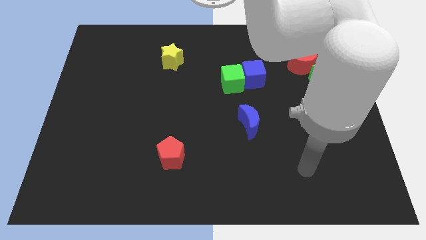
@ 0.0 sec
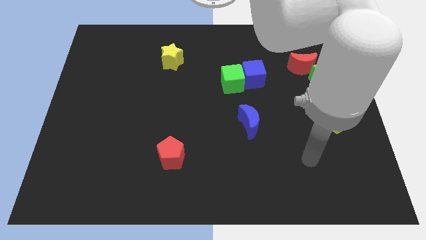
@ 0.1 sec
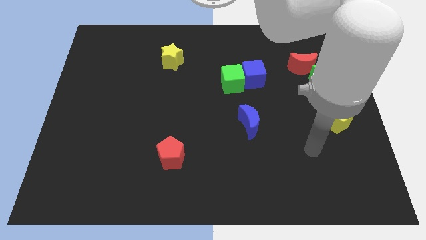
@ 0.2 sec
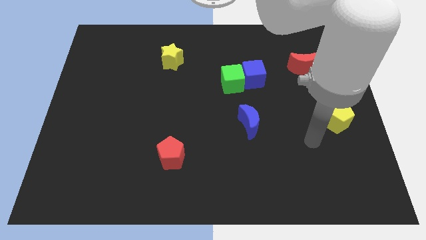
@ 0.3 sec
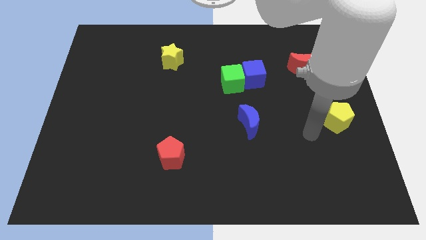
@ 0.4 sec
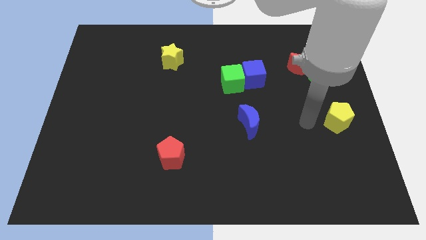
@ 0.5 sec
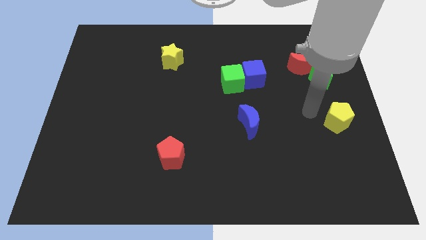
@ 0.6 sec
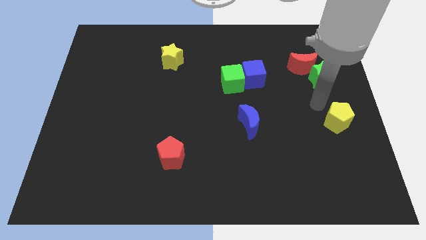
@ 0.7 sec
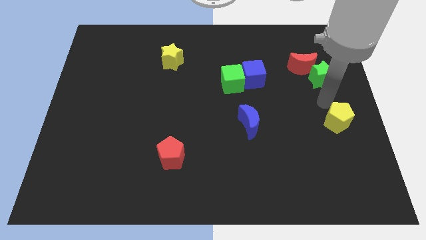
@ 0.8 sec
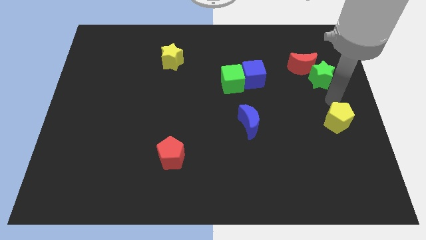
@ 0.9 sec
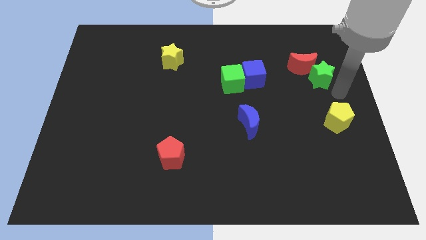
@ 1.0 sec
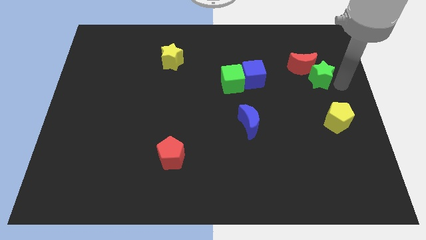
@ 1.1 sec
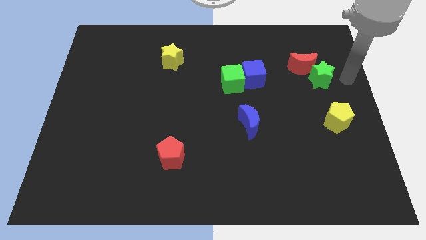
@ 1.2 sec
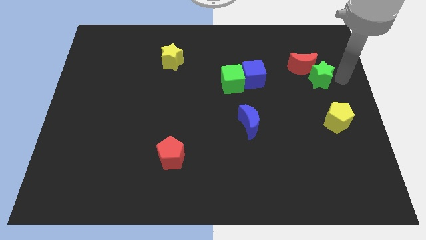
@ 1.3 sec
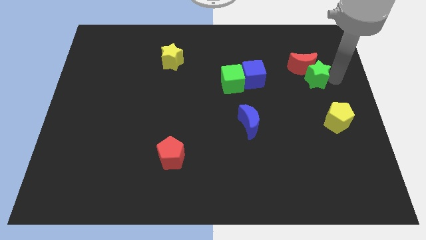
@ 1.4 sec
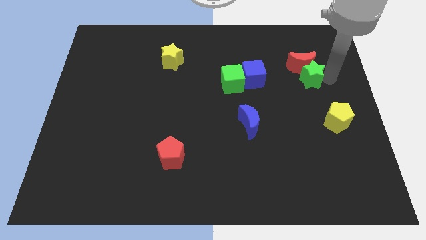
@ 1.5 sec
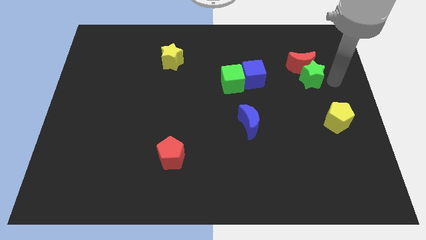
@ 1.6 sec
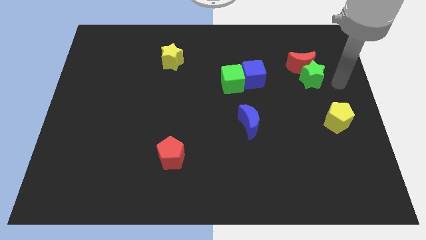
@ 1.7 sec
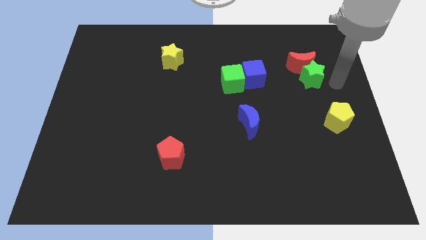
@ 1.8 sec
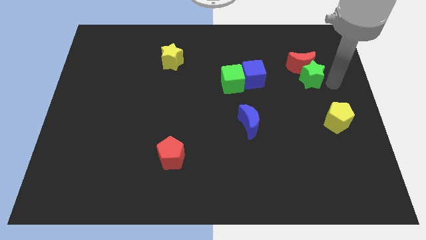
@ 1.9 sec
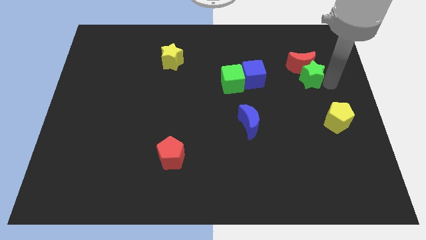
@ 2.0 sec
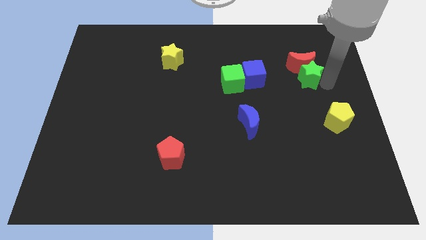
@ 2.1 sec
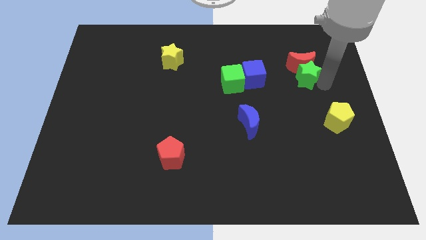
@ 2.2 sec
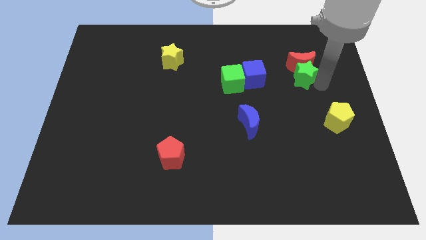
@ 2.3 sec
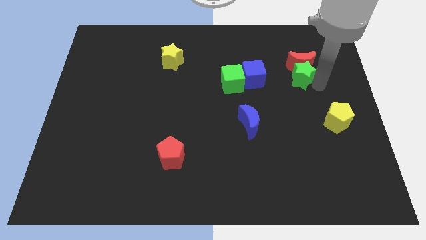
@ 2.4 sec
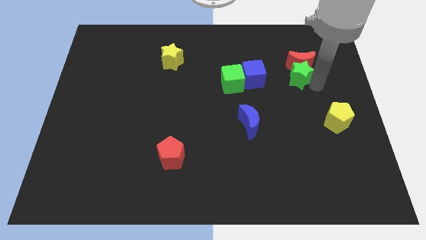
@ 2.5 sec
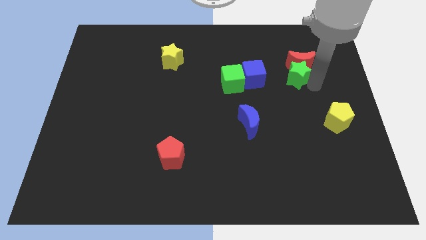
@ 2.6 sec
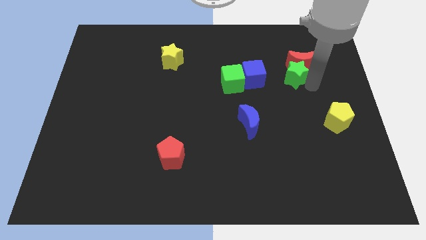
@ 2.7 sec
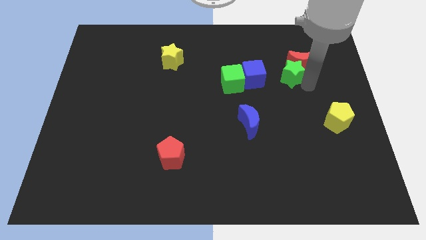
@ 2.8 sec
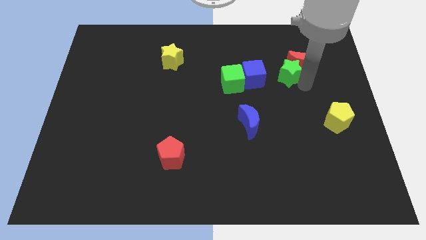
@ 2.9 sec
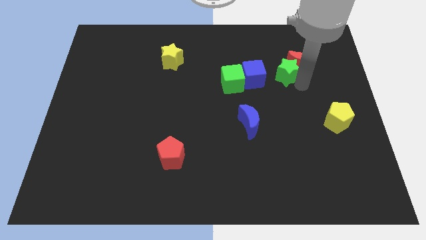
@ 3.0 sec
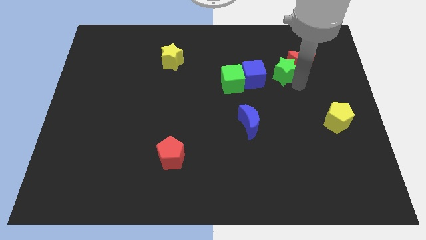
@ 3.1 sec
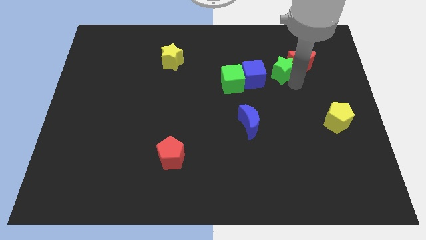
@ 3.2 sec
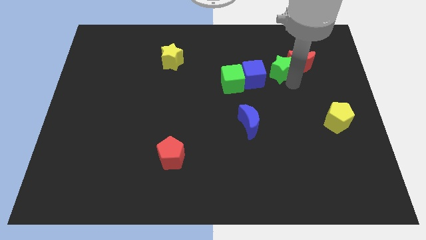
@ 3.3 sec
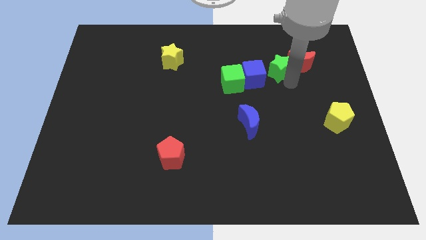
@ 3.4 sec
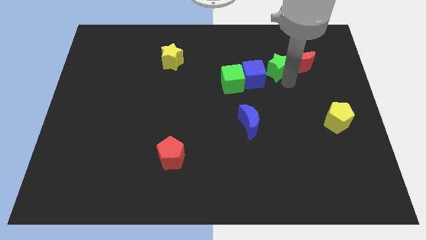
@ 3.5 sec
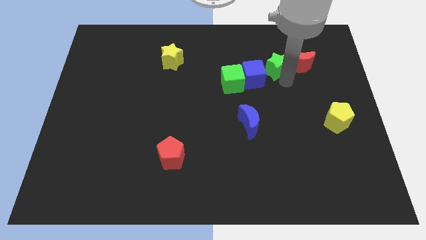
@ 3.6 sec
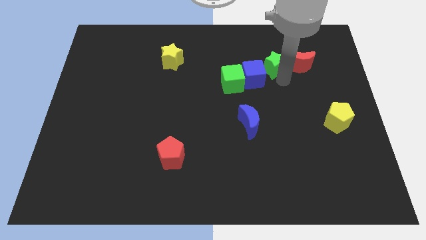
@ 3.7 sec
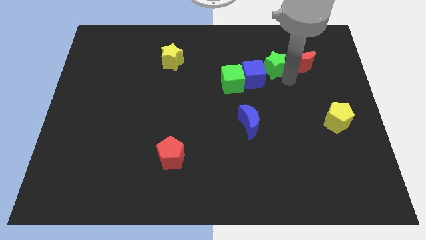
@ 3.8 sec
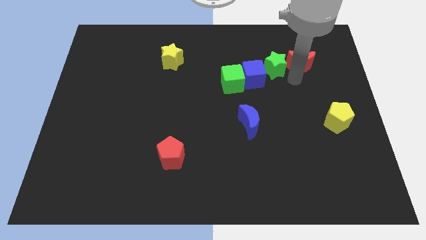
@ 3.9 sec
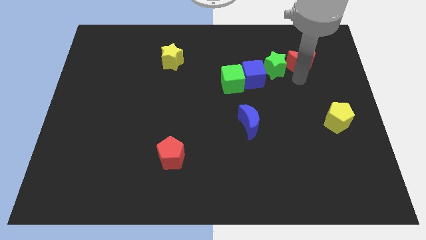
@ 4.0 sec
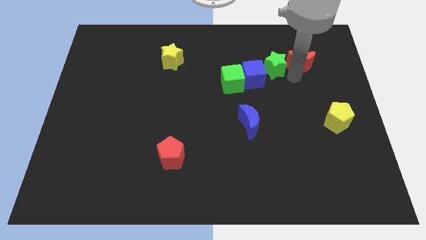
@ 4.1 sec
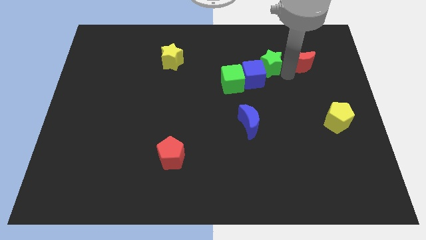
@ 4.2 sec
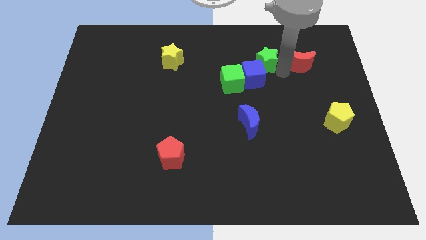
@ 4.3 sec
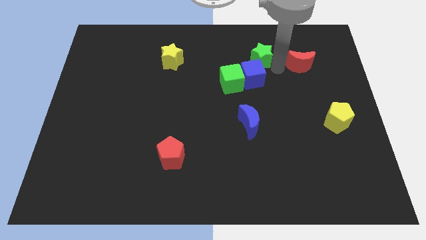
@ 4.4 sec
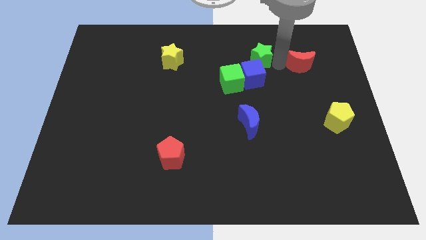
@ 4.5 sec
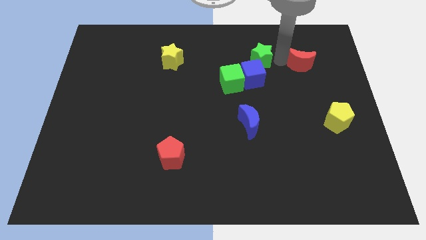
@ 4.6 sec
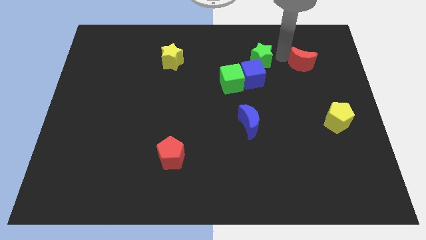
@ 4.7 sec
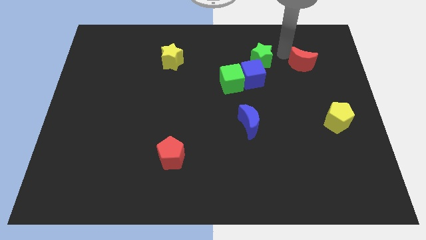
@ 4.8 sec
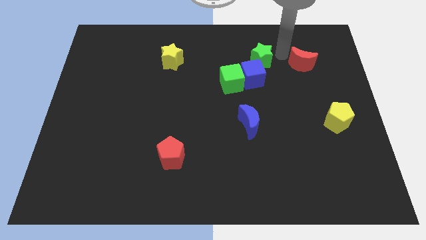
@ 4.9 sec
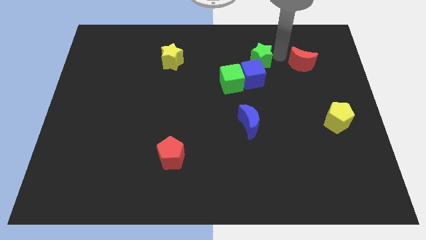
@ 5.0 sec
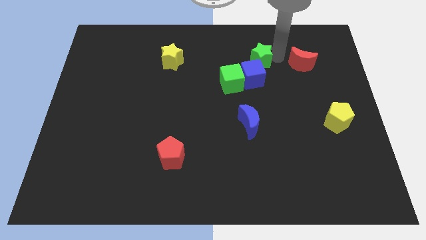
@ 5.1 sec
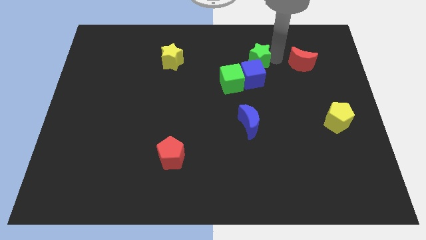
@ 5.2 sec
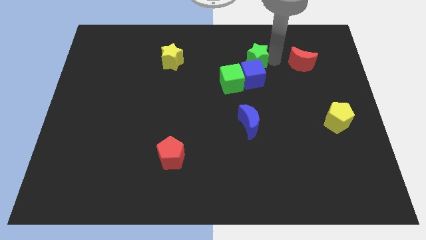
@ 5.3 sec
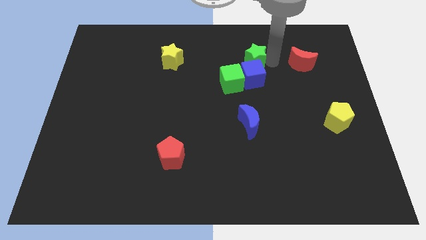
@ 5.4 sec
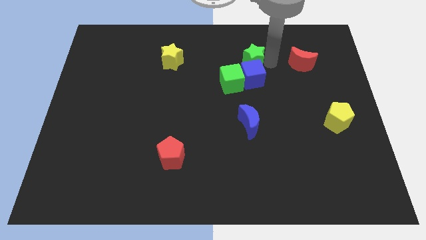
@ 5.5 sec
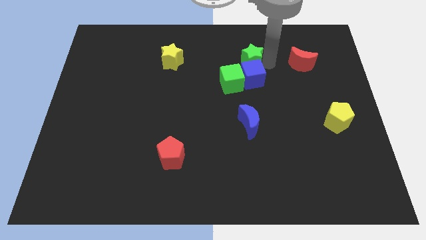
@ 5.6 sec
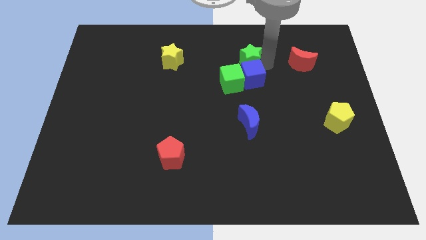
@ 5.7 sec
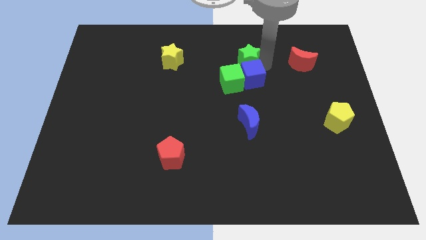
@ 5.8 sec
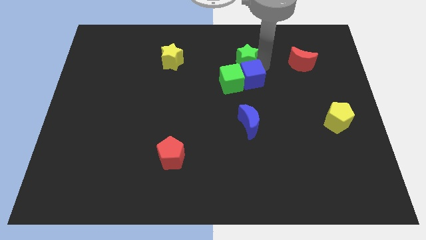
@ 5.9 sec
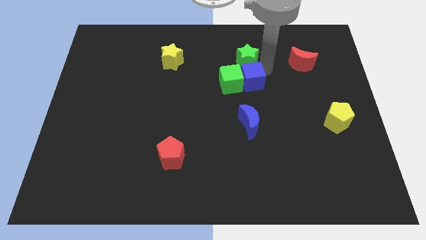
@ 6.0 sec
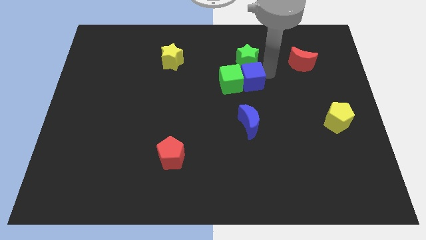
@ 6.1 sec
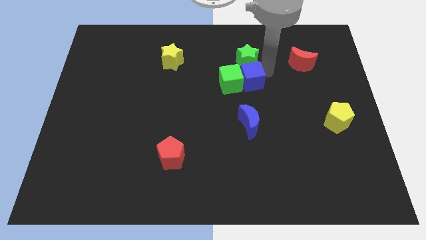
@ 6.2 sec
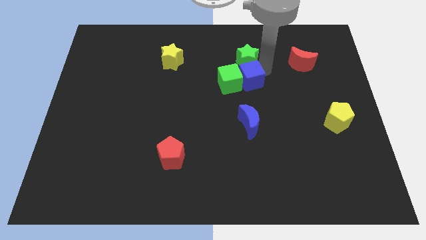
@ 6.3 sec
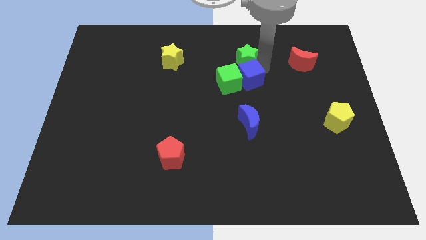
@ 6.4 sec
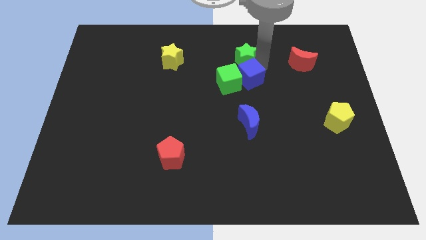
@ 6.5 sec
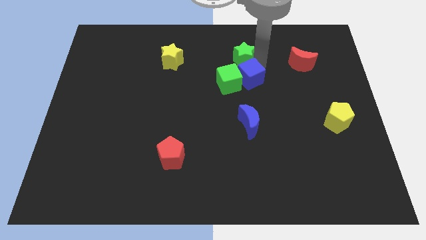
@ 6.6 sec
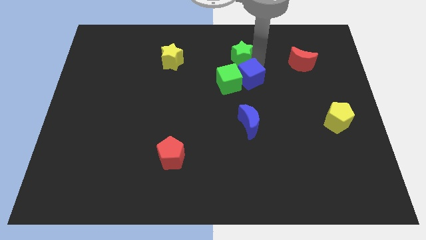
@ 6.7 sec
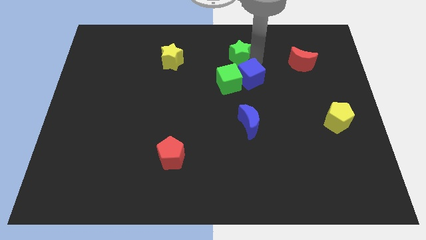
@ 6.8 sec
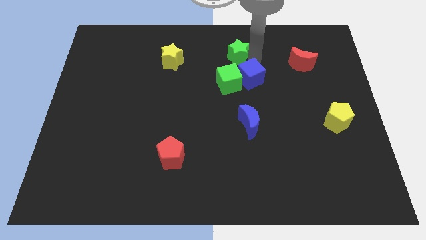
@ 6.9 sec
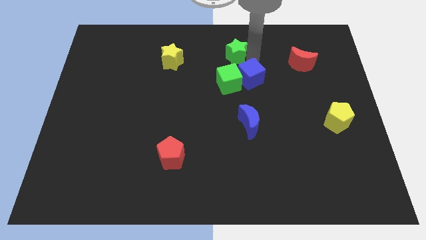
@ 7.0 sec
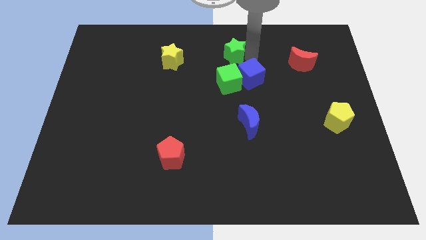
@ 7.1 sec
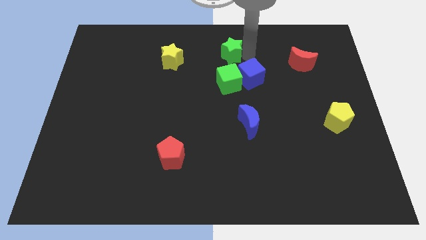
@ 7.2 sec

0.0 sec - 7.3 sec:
slide the green star to the top
